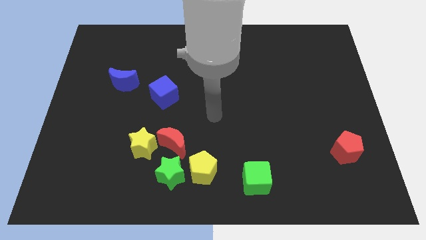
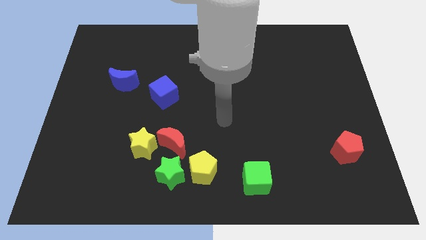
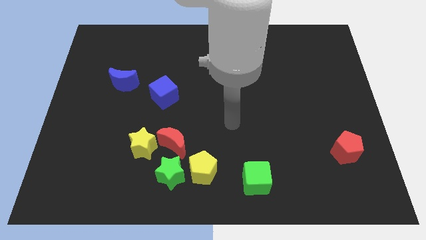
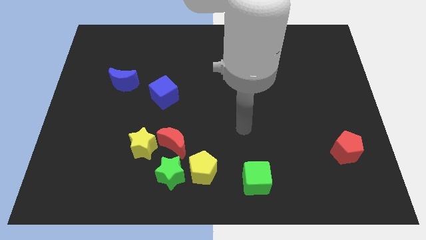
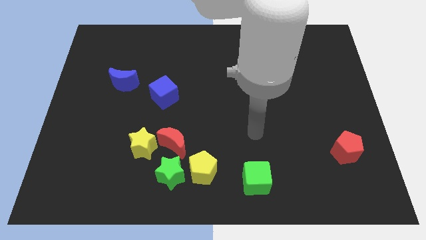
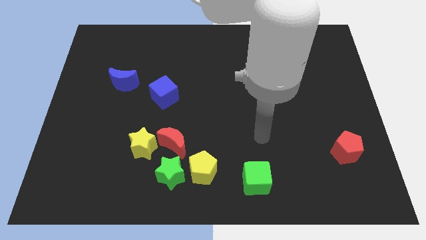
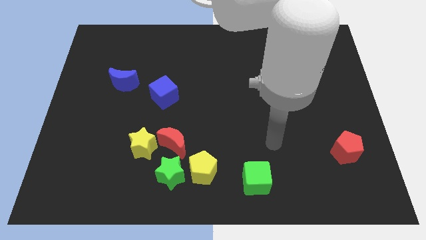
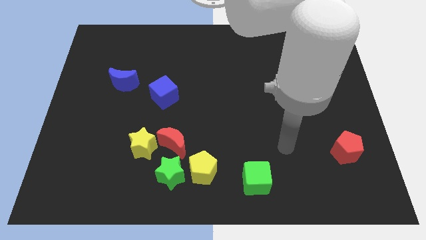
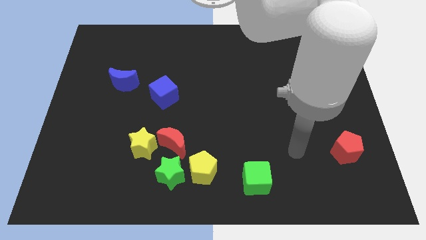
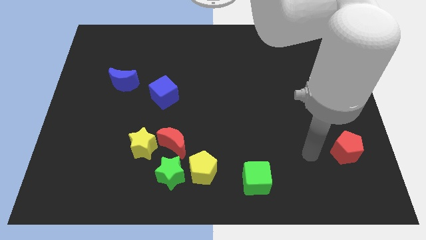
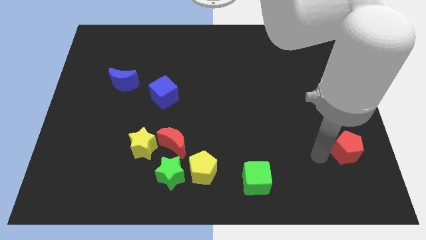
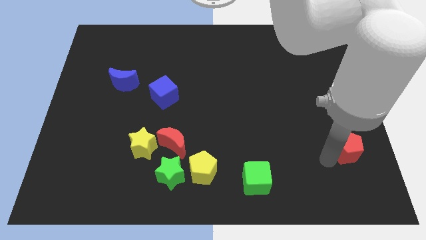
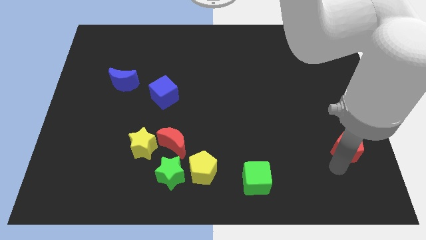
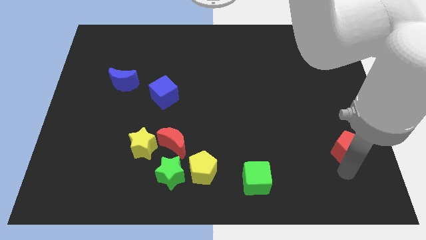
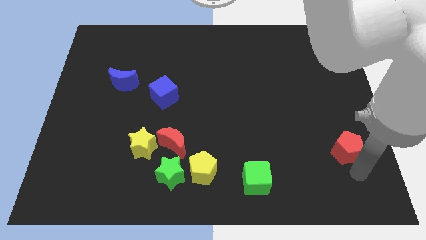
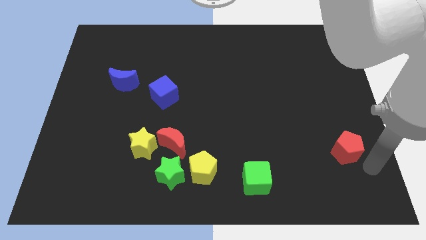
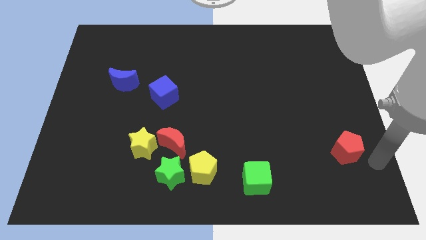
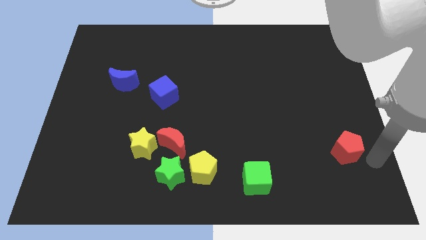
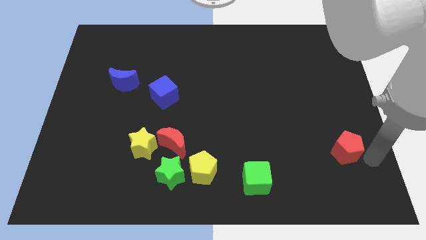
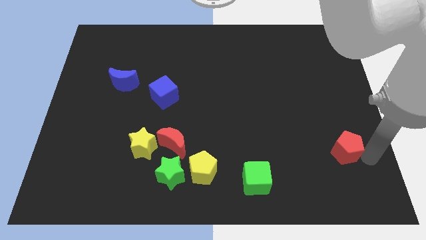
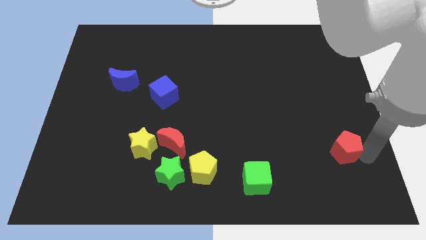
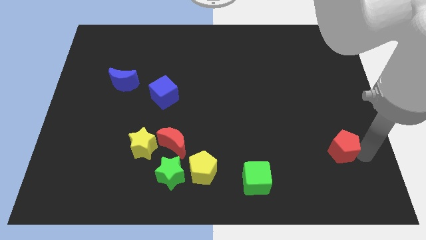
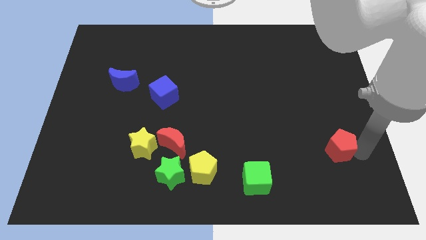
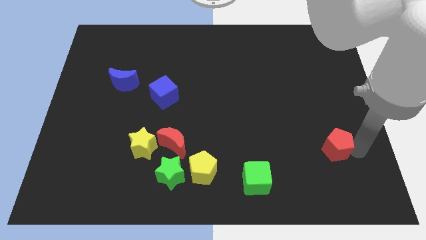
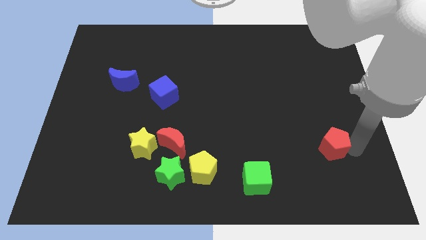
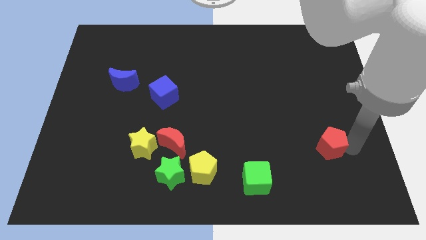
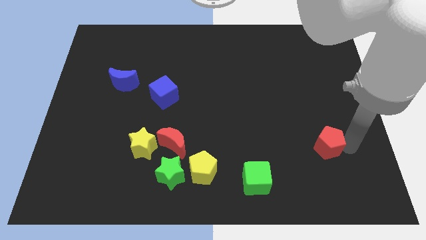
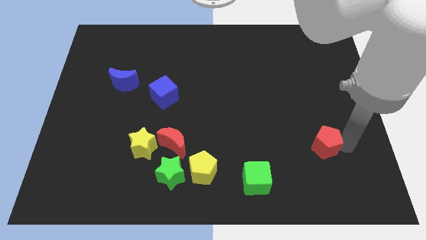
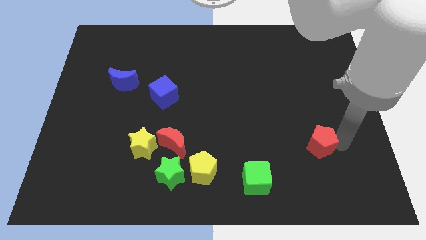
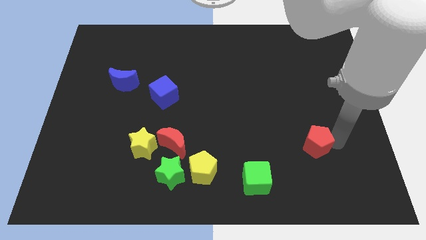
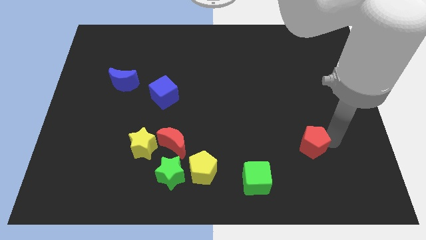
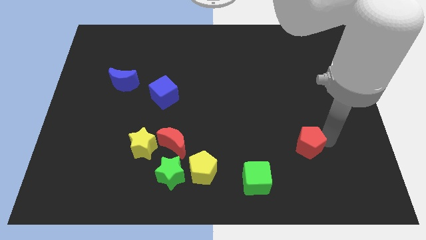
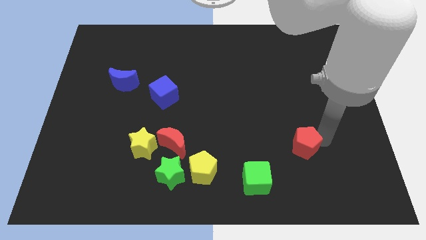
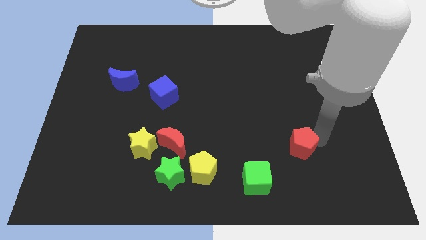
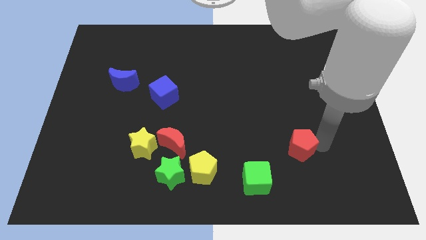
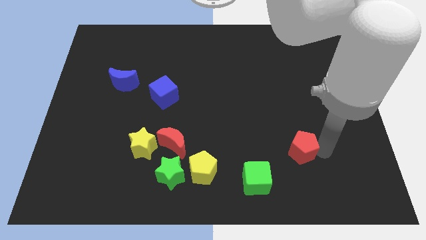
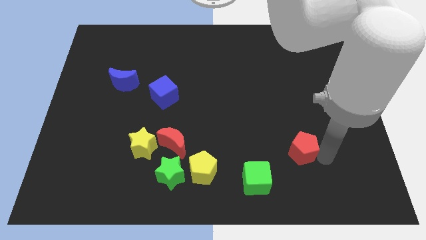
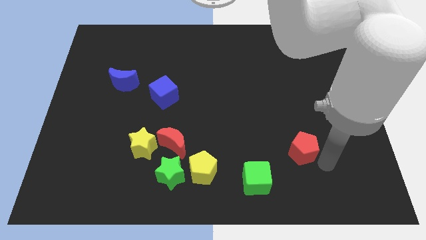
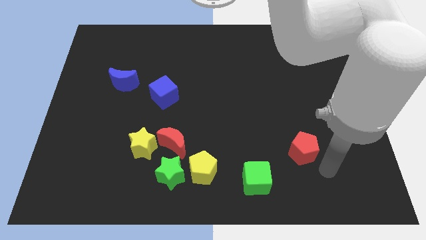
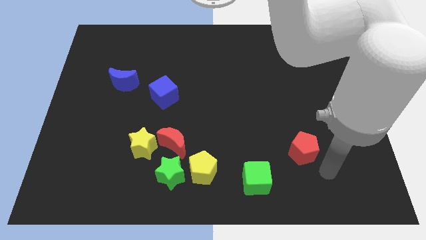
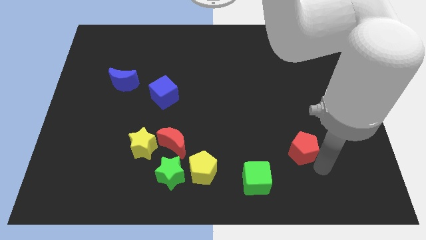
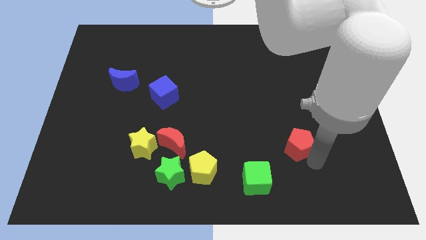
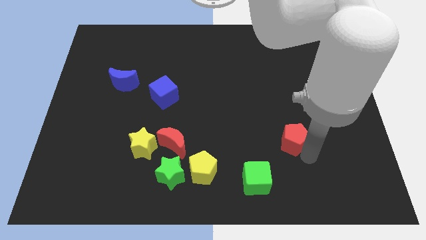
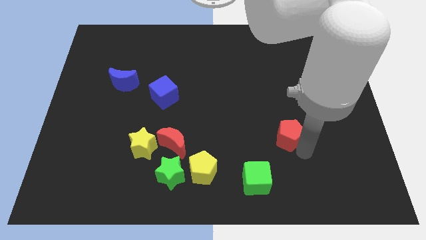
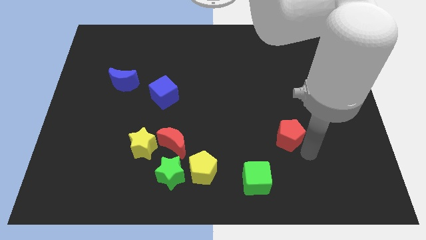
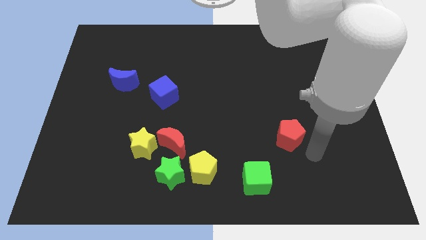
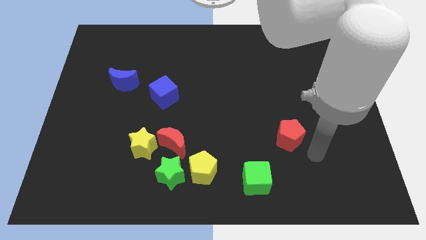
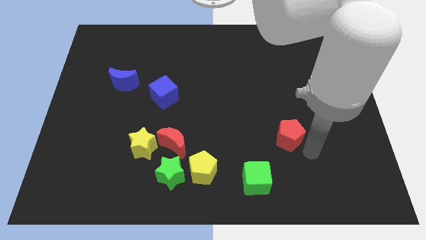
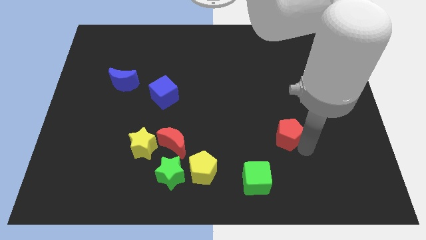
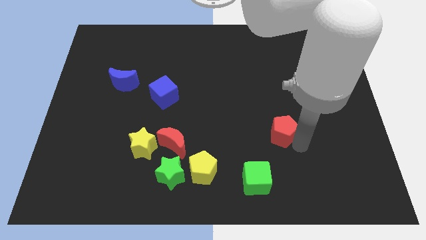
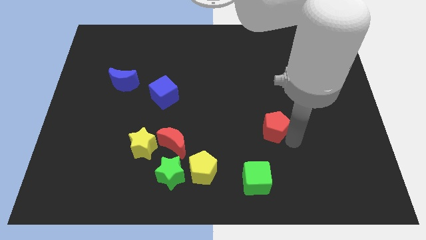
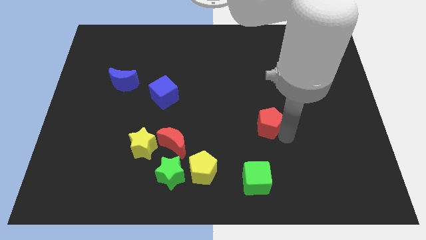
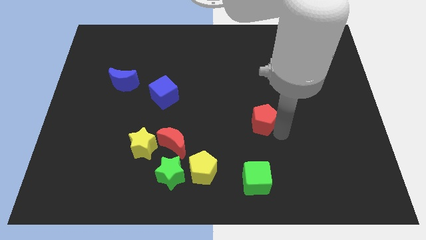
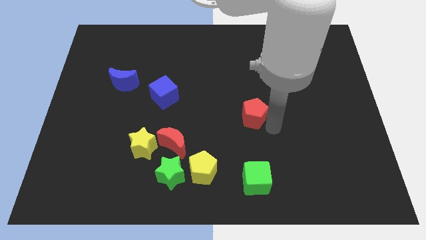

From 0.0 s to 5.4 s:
put the red pentagon to the middle

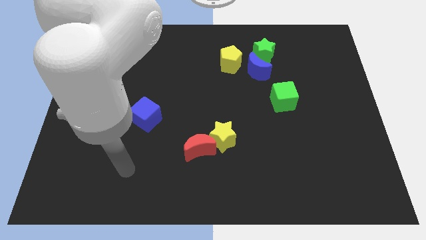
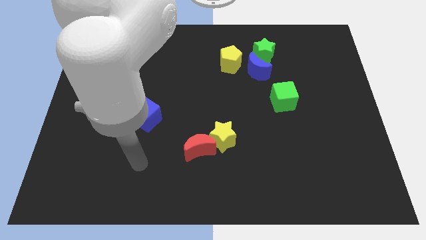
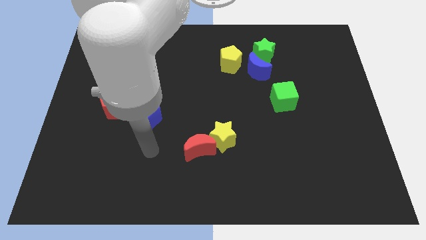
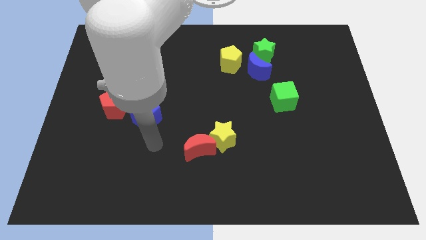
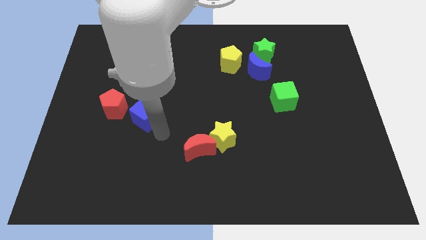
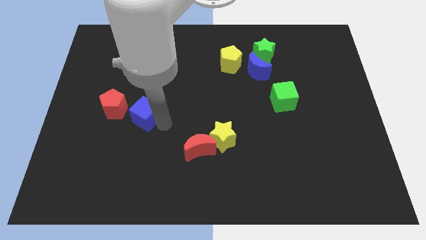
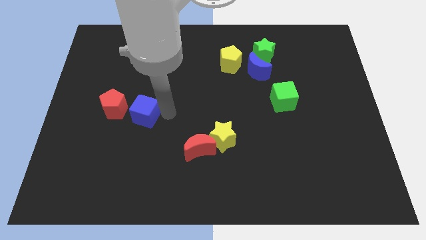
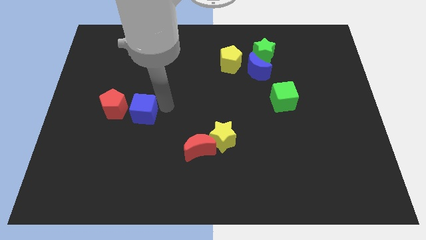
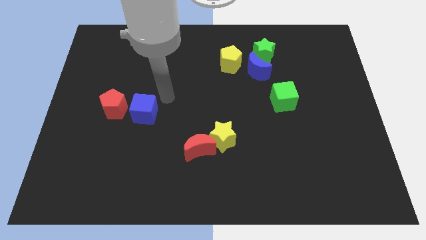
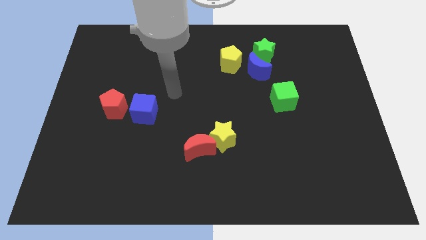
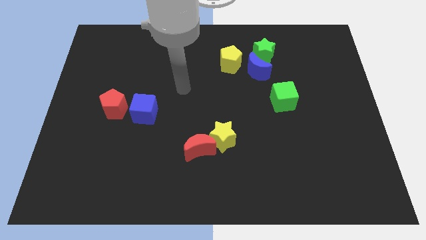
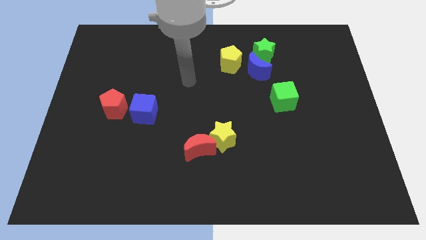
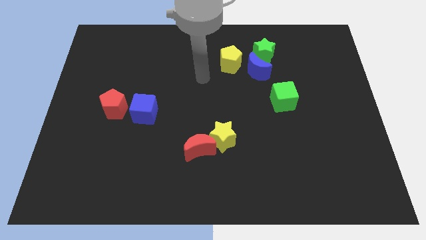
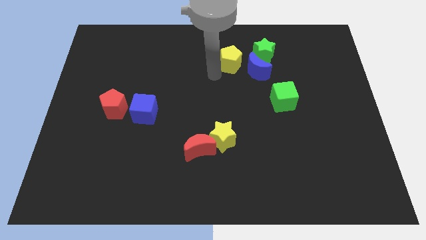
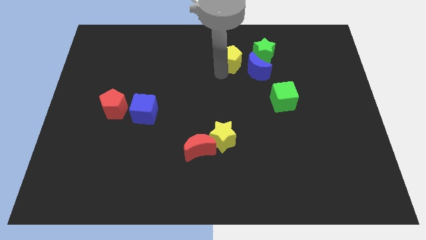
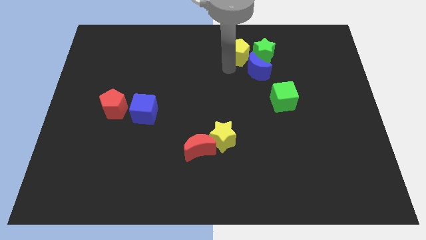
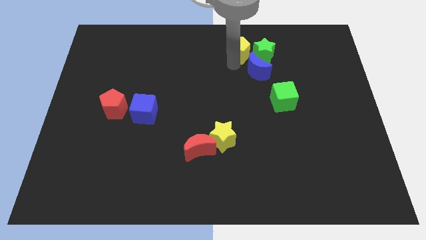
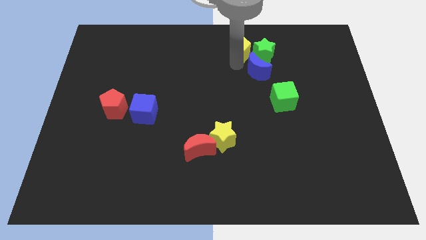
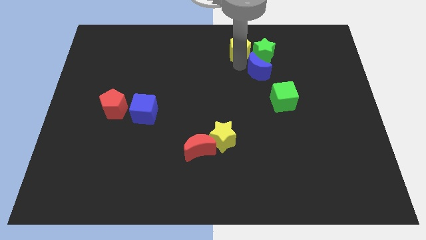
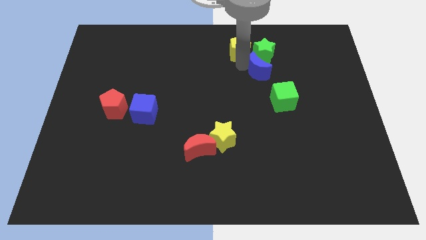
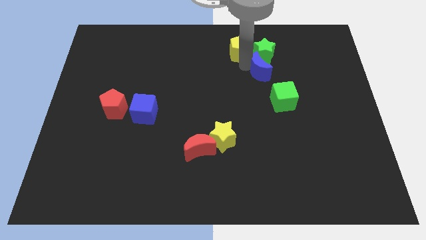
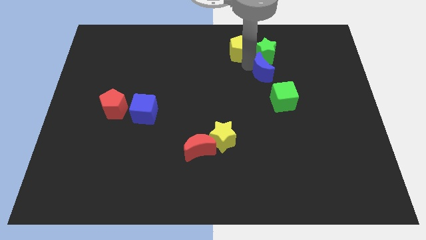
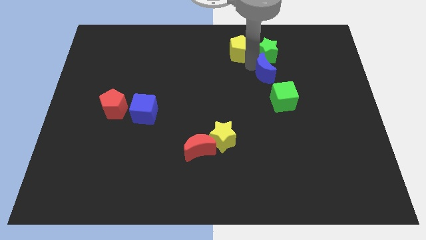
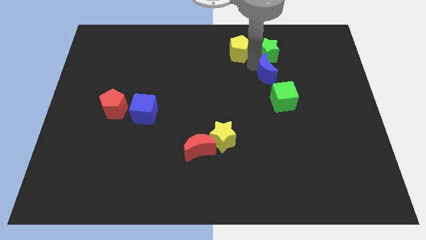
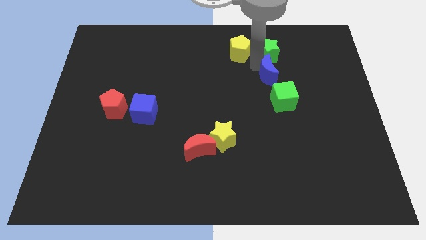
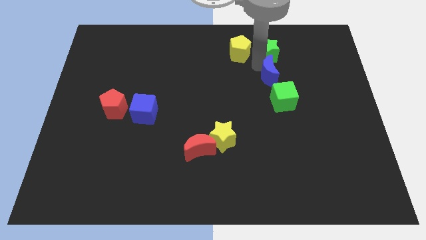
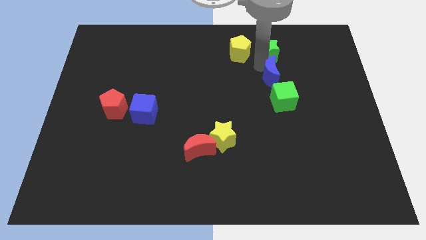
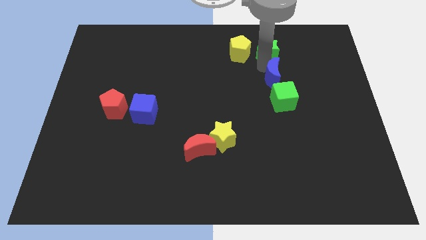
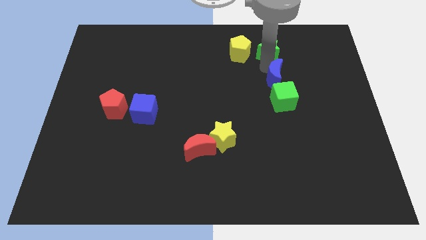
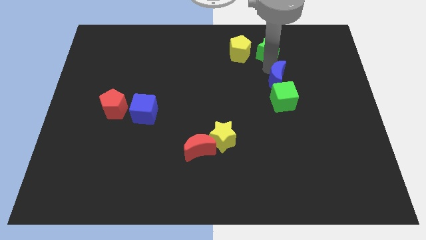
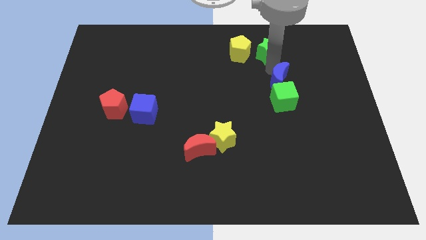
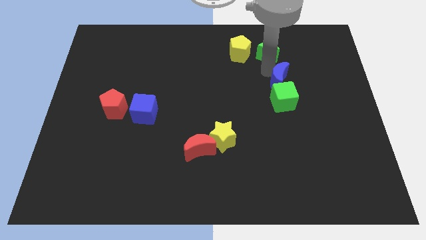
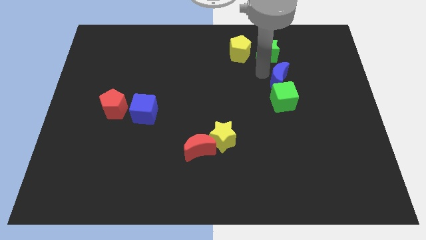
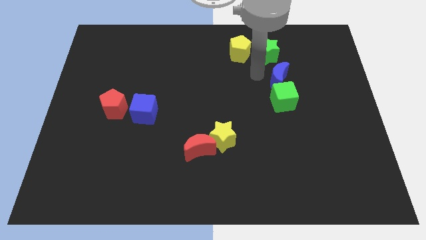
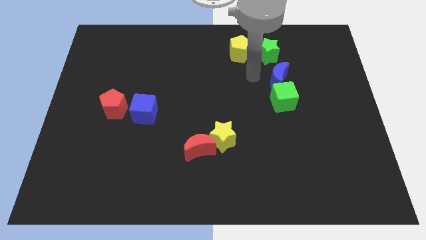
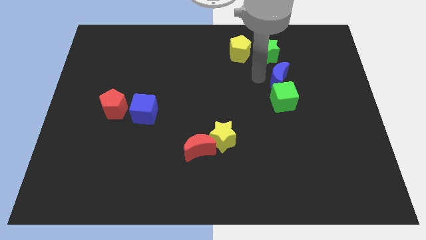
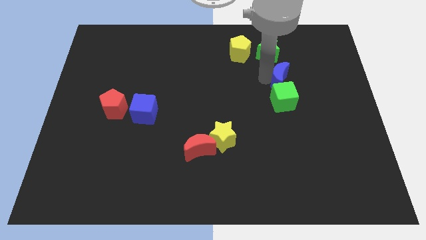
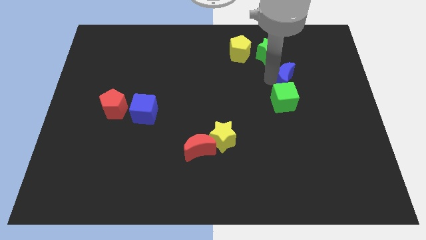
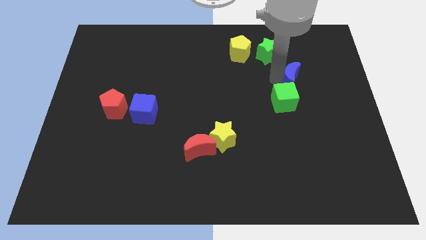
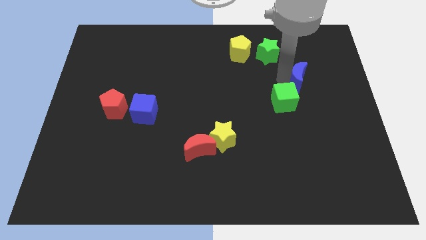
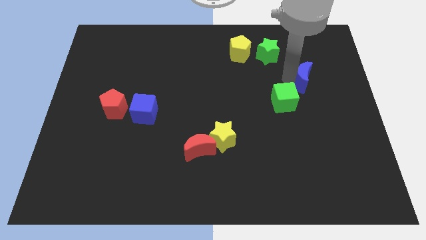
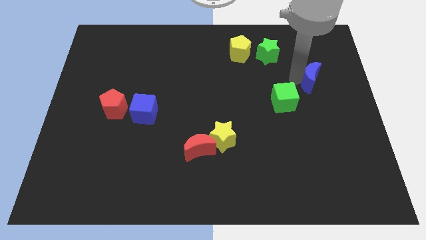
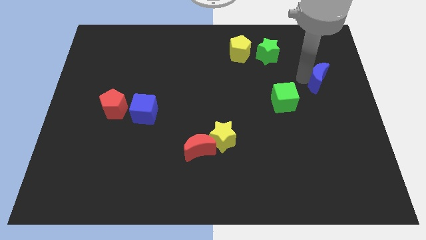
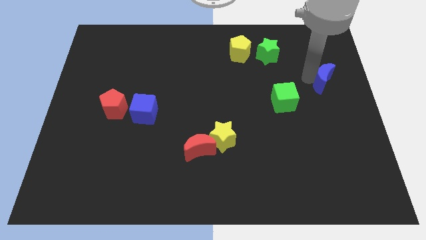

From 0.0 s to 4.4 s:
put the blue moon to the right side of the board
